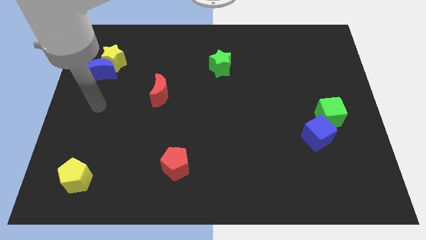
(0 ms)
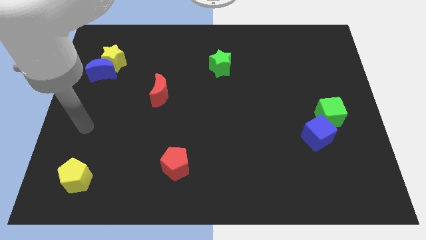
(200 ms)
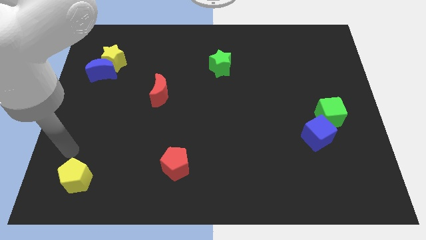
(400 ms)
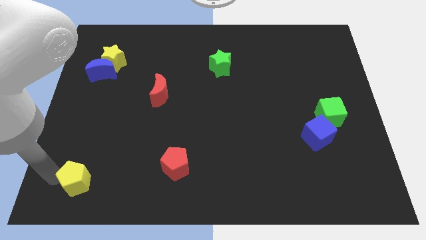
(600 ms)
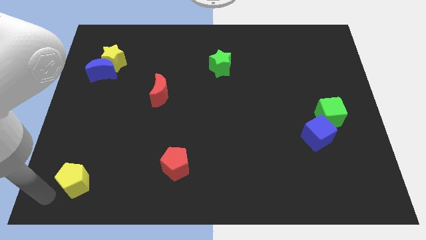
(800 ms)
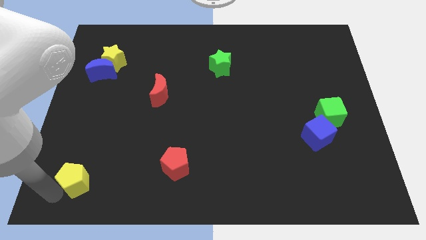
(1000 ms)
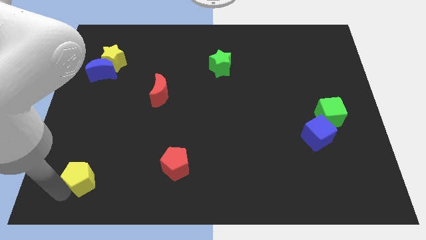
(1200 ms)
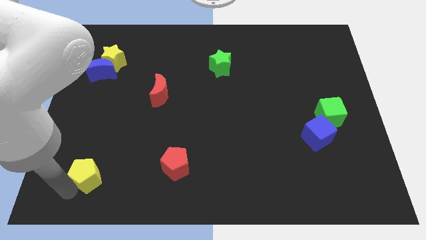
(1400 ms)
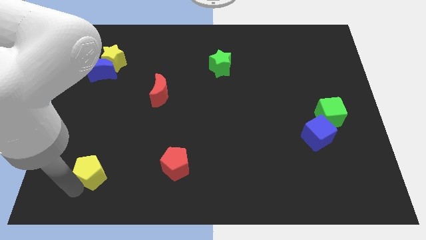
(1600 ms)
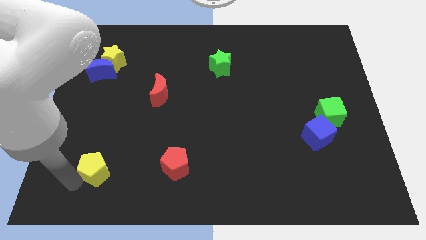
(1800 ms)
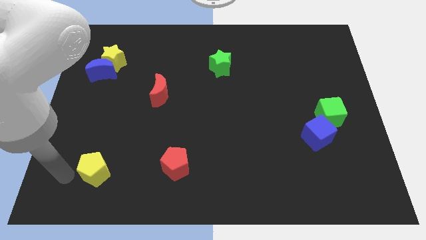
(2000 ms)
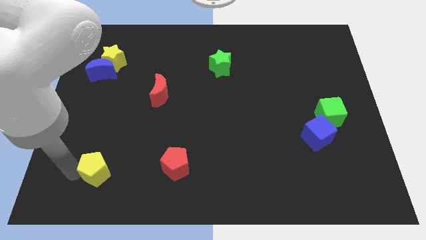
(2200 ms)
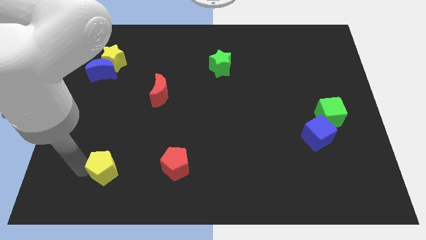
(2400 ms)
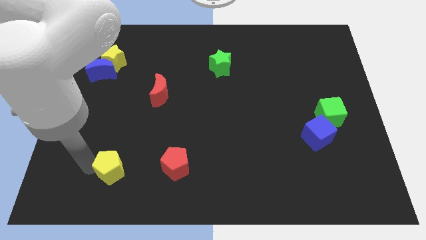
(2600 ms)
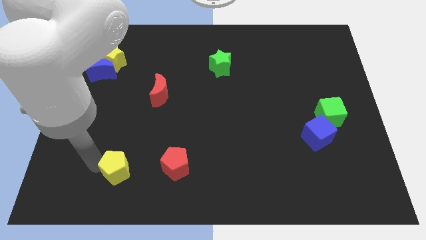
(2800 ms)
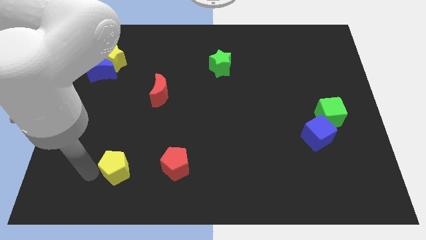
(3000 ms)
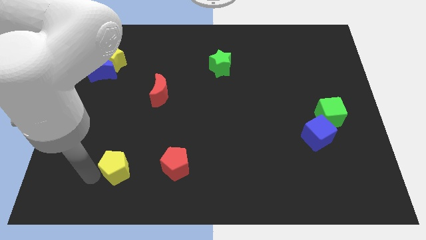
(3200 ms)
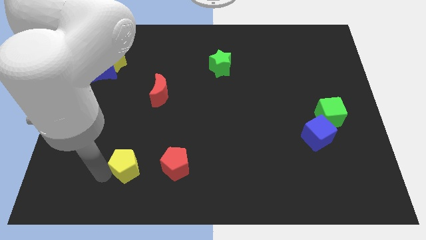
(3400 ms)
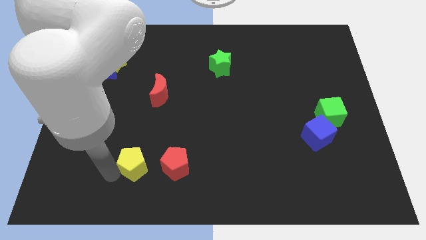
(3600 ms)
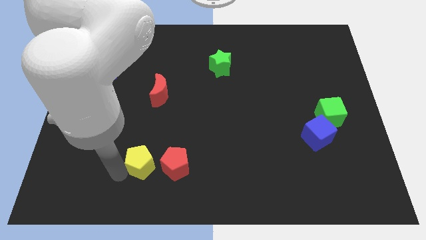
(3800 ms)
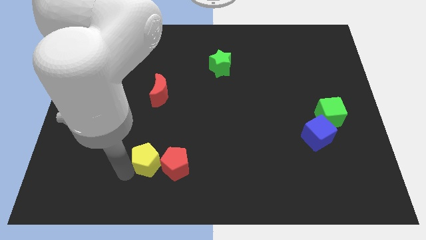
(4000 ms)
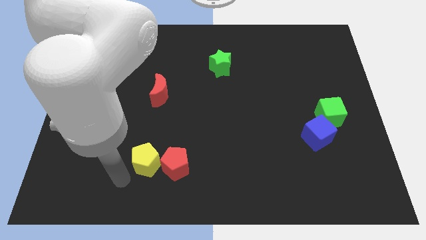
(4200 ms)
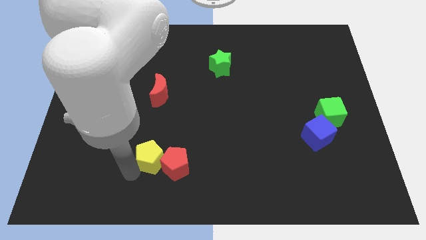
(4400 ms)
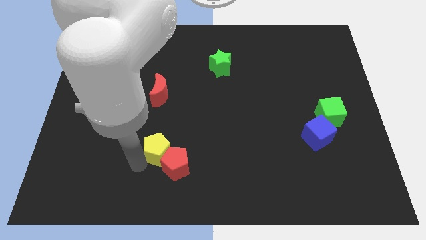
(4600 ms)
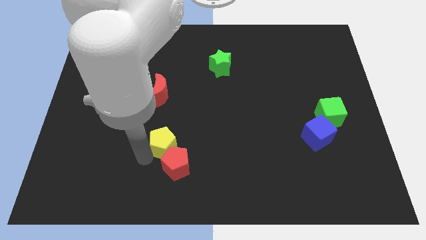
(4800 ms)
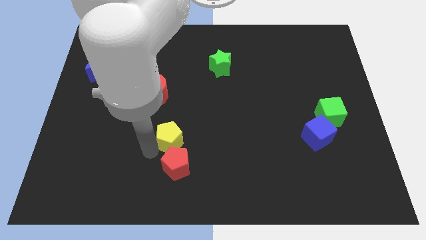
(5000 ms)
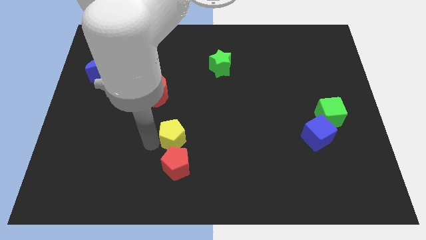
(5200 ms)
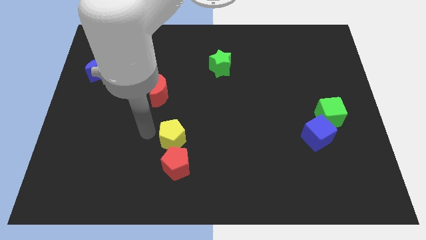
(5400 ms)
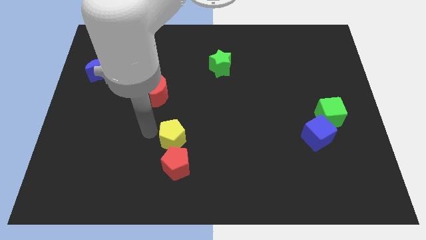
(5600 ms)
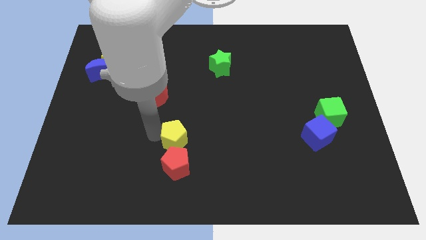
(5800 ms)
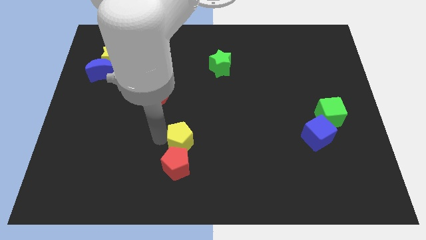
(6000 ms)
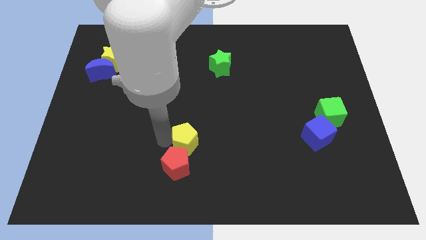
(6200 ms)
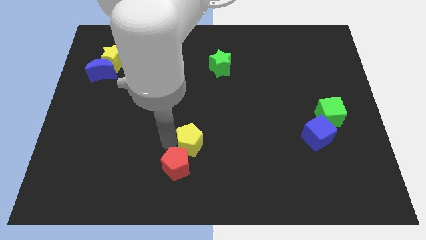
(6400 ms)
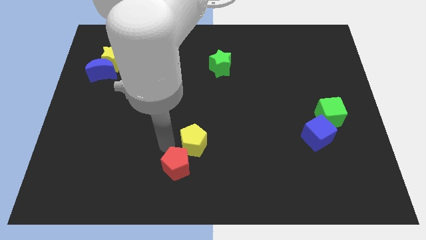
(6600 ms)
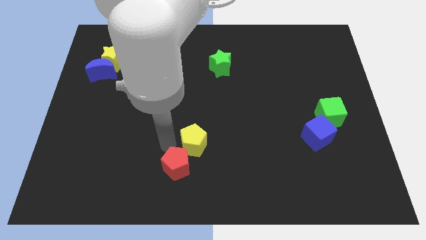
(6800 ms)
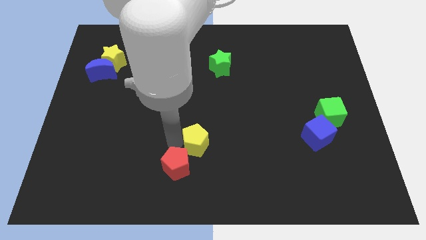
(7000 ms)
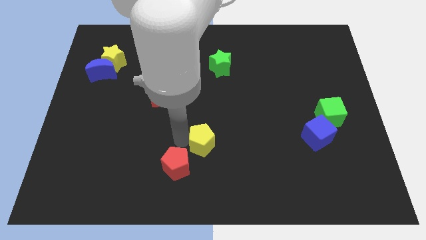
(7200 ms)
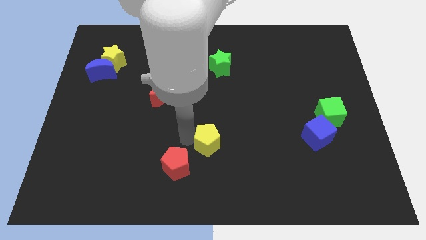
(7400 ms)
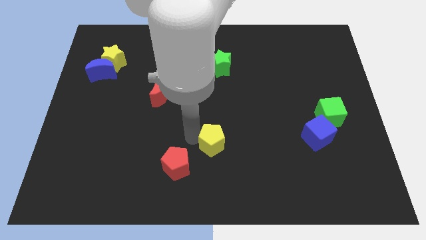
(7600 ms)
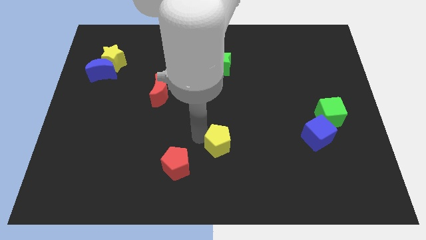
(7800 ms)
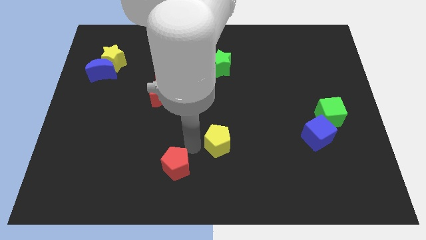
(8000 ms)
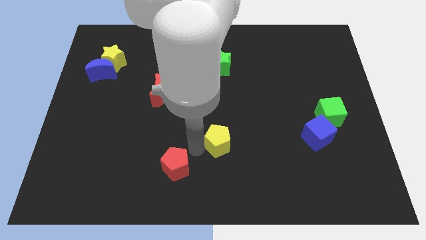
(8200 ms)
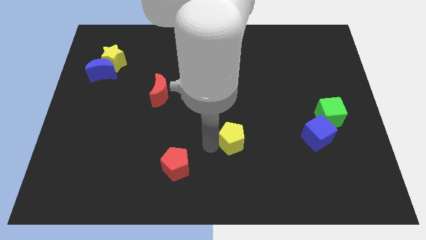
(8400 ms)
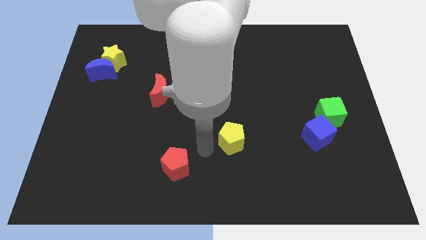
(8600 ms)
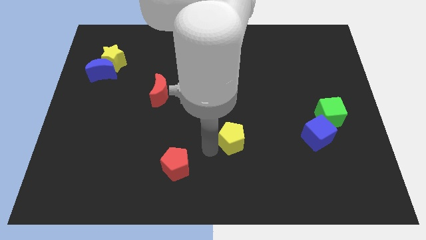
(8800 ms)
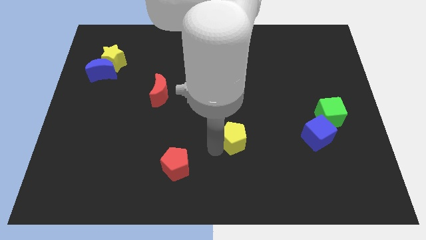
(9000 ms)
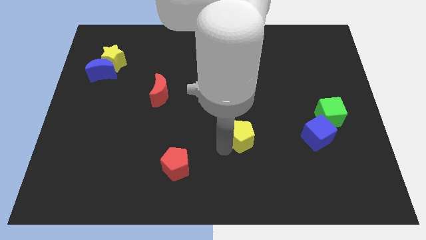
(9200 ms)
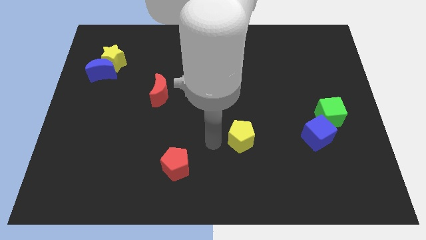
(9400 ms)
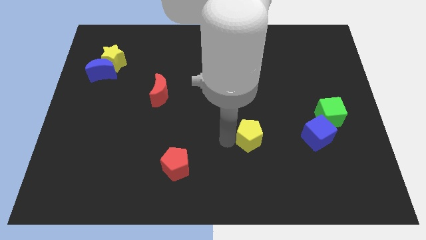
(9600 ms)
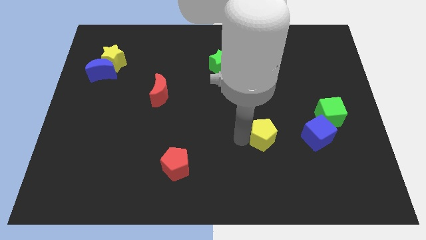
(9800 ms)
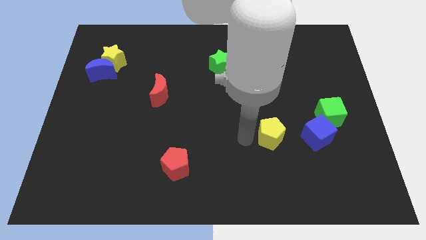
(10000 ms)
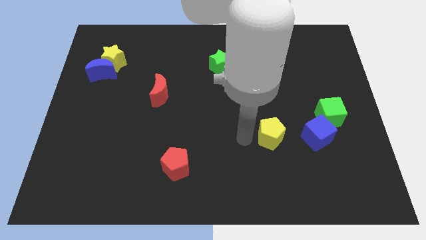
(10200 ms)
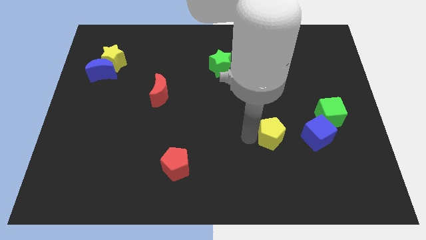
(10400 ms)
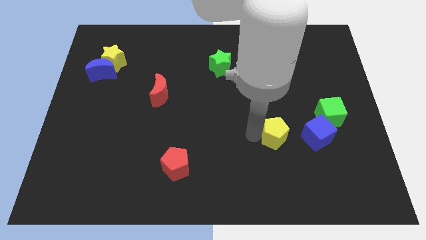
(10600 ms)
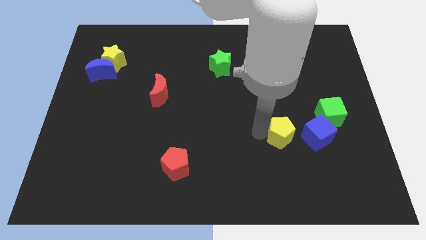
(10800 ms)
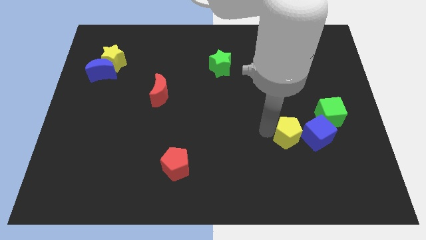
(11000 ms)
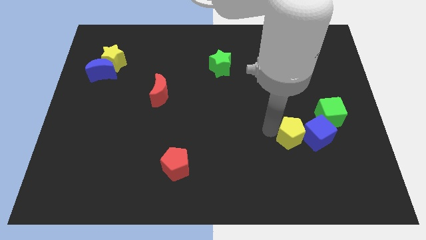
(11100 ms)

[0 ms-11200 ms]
put the yellow pentagon close to the blue cube

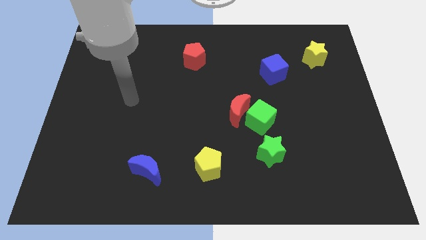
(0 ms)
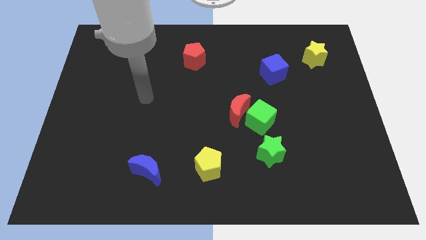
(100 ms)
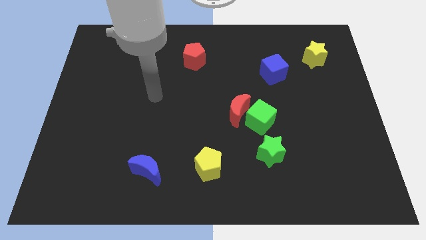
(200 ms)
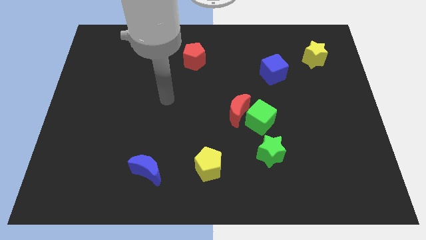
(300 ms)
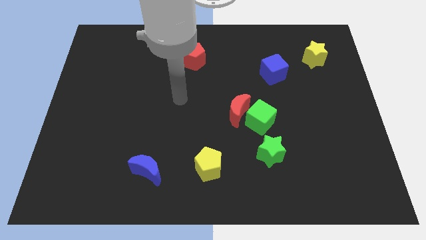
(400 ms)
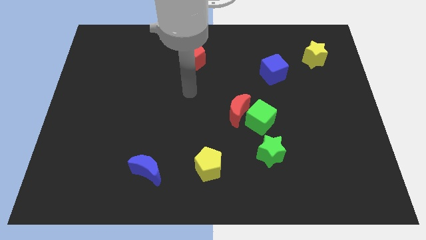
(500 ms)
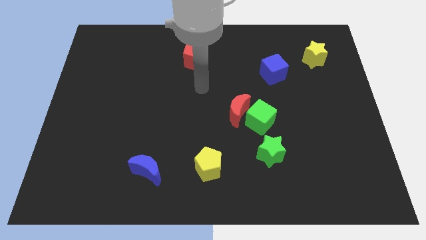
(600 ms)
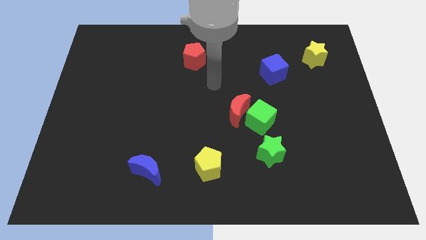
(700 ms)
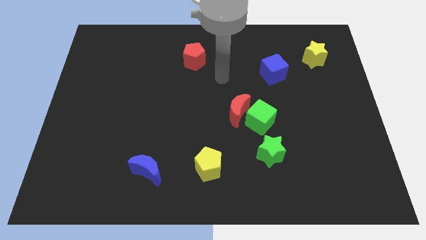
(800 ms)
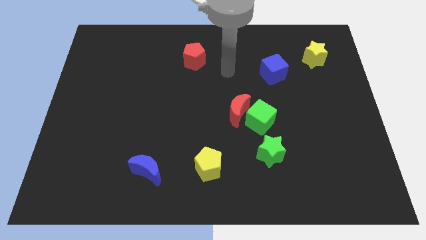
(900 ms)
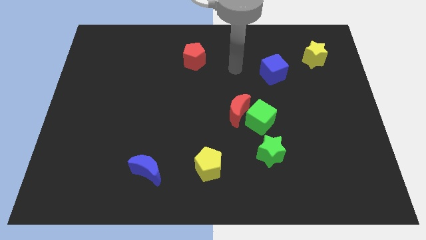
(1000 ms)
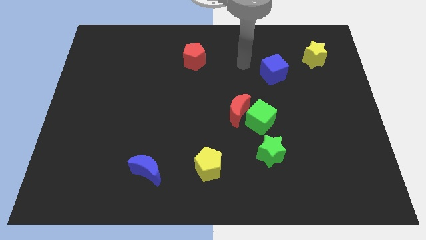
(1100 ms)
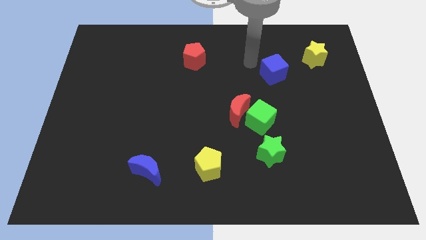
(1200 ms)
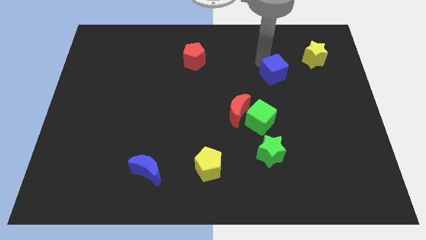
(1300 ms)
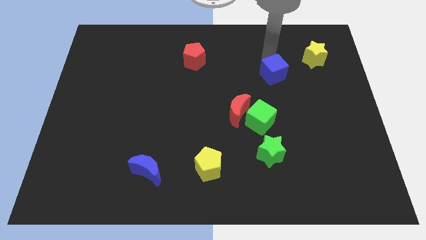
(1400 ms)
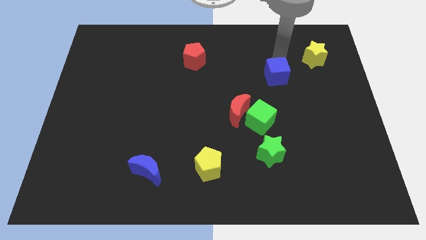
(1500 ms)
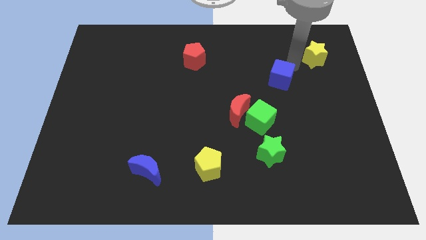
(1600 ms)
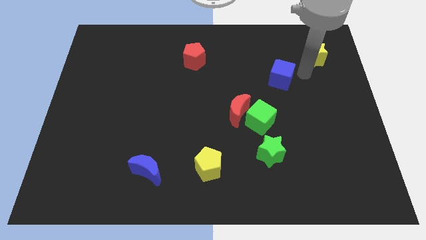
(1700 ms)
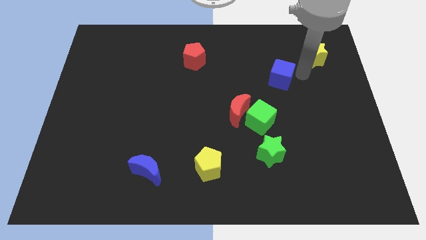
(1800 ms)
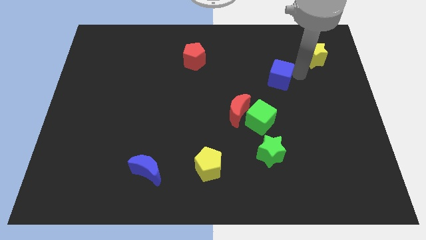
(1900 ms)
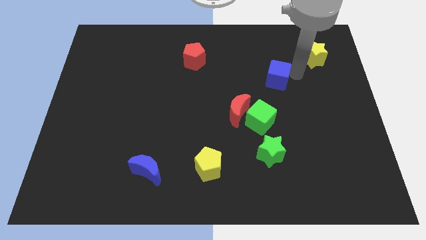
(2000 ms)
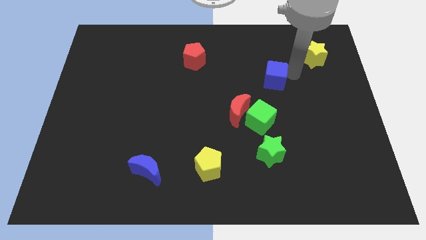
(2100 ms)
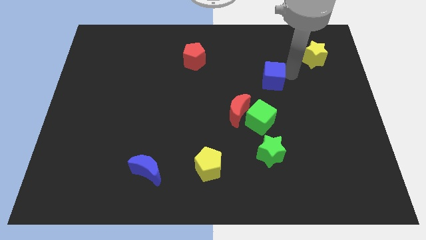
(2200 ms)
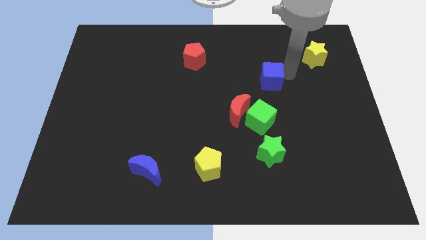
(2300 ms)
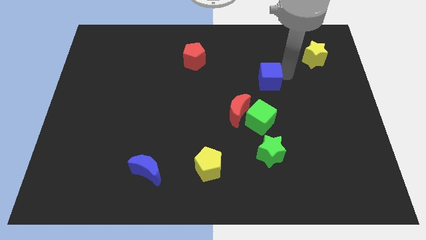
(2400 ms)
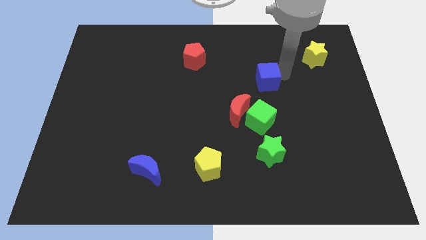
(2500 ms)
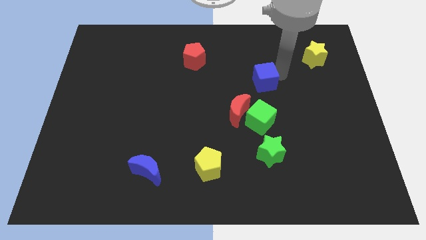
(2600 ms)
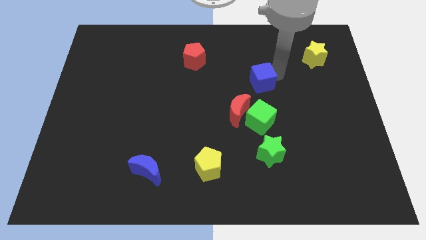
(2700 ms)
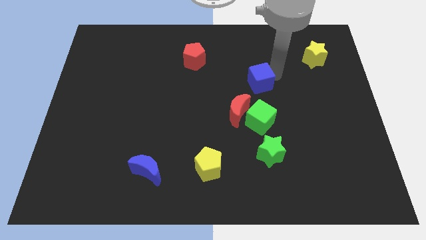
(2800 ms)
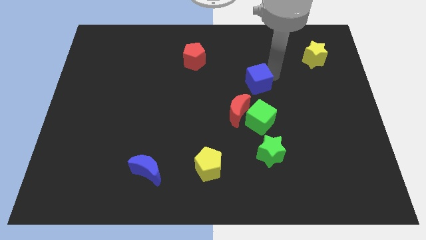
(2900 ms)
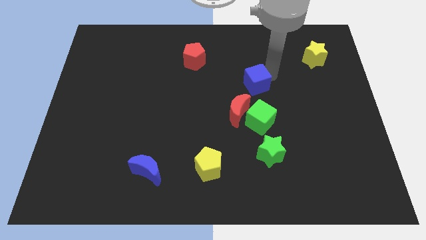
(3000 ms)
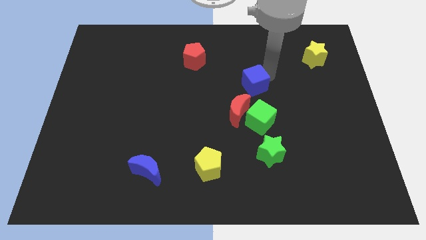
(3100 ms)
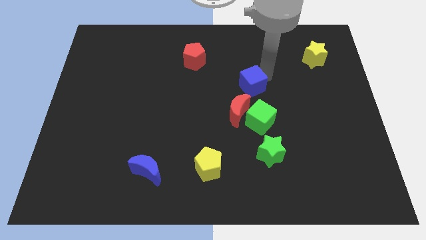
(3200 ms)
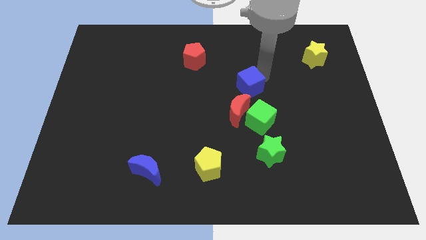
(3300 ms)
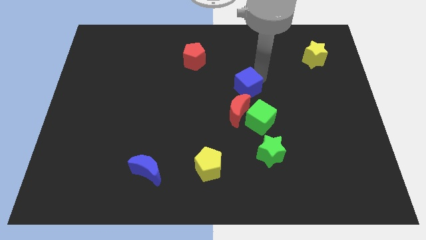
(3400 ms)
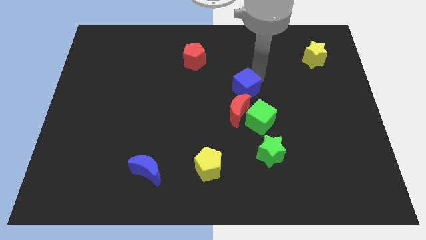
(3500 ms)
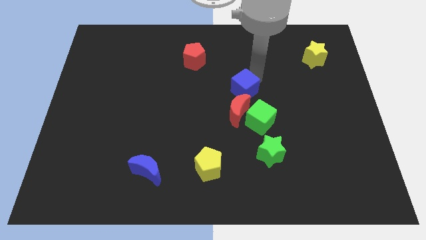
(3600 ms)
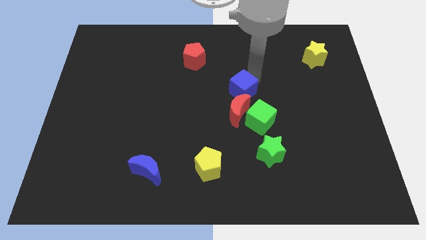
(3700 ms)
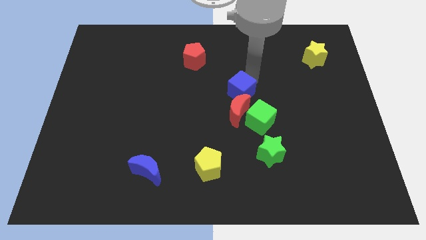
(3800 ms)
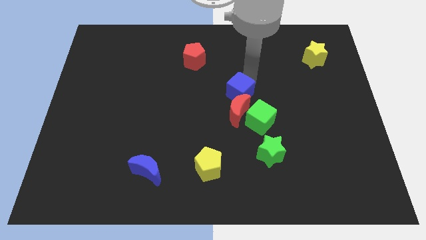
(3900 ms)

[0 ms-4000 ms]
push the blue cube to the red moon
